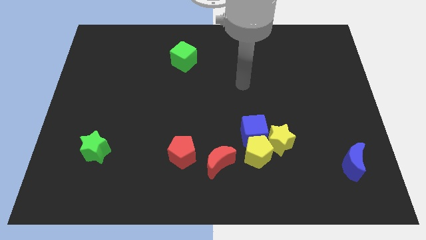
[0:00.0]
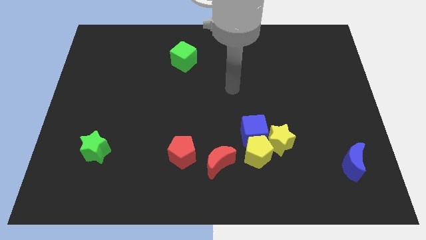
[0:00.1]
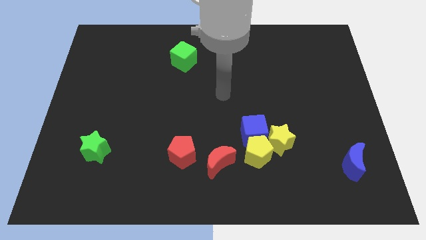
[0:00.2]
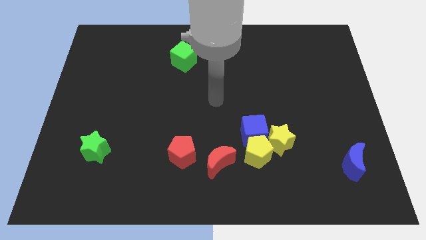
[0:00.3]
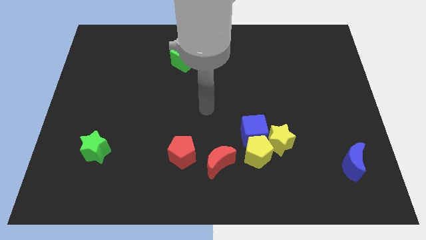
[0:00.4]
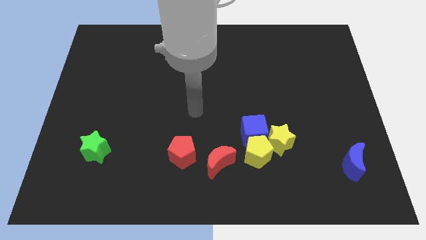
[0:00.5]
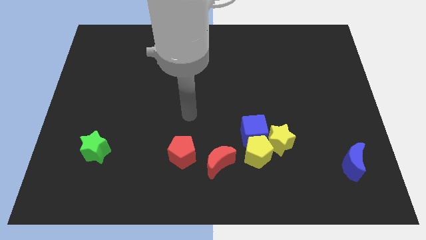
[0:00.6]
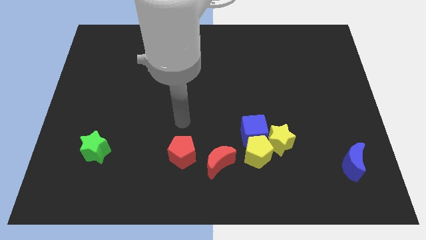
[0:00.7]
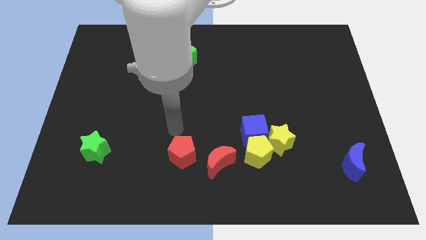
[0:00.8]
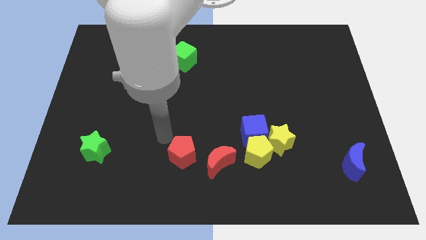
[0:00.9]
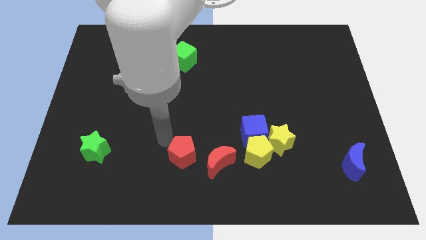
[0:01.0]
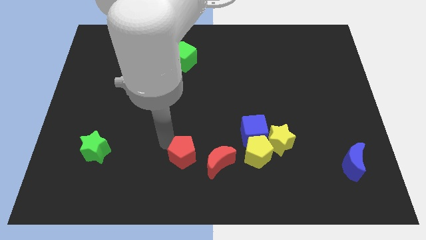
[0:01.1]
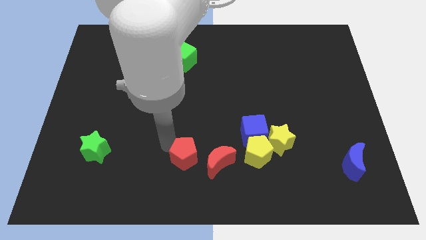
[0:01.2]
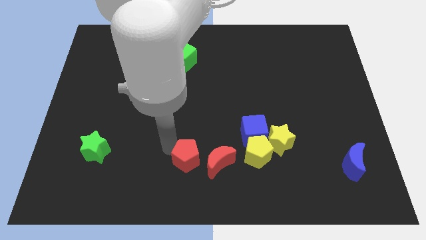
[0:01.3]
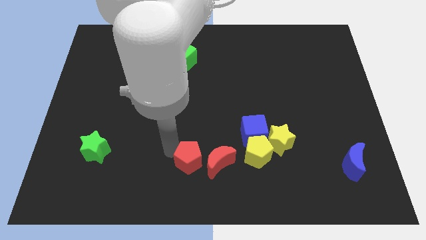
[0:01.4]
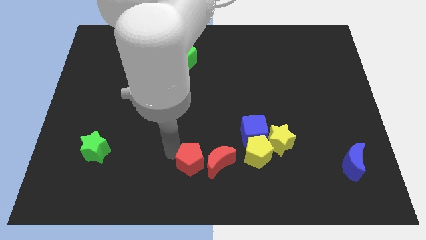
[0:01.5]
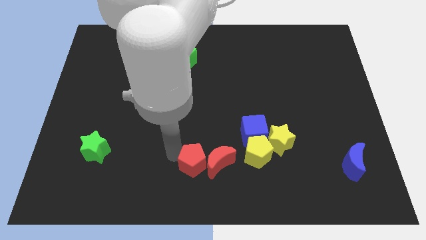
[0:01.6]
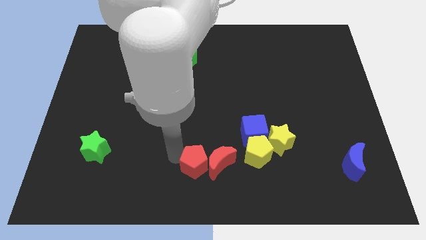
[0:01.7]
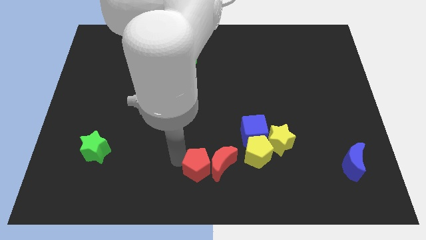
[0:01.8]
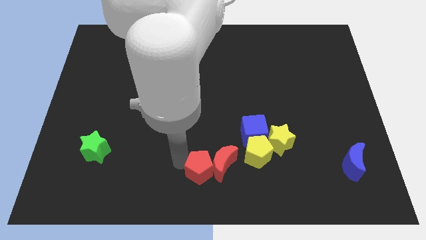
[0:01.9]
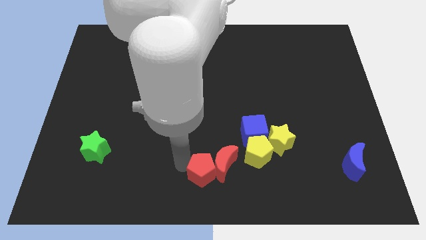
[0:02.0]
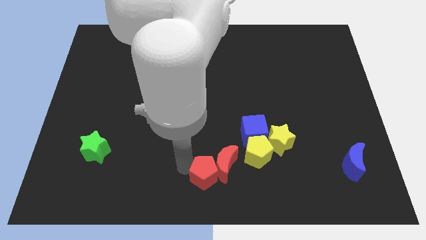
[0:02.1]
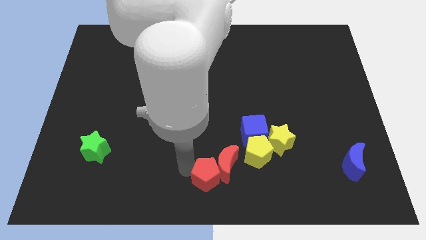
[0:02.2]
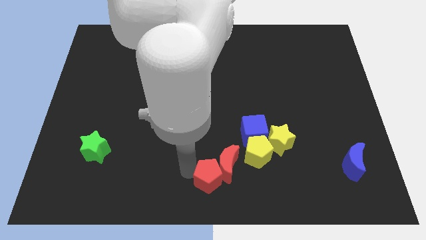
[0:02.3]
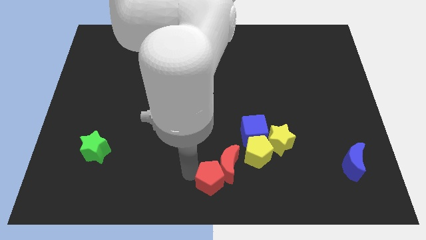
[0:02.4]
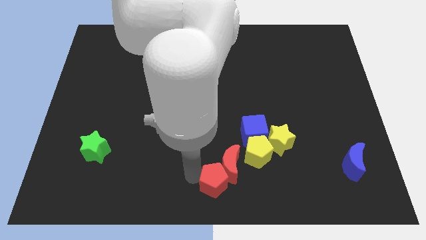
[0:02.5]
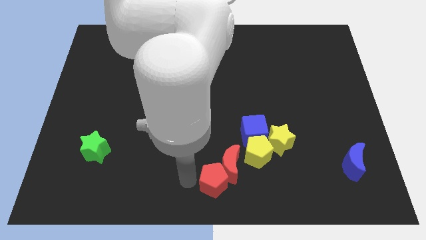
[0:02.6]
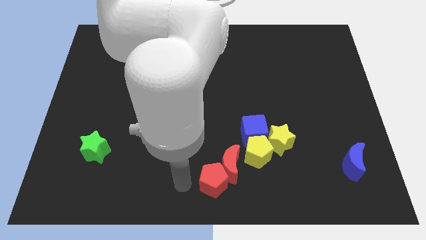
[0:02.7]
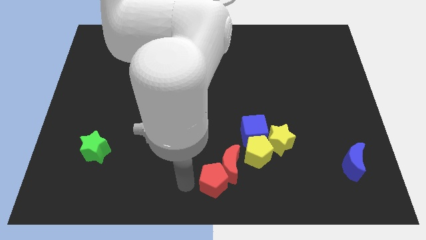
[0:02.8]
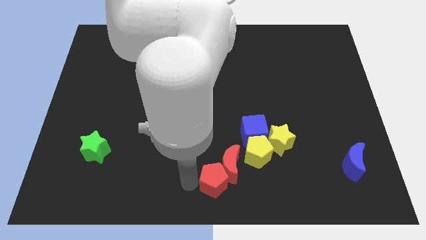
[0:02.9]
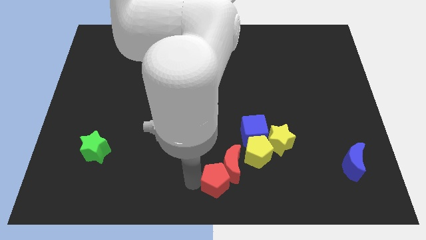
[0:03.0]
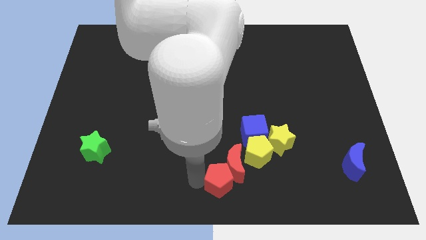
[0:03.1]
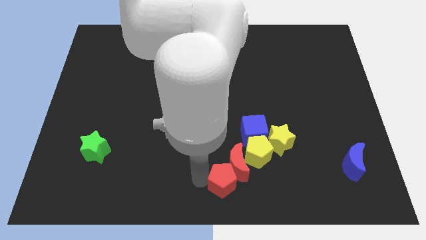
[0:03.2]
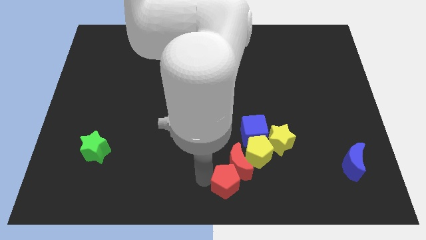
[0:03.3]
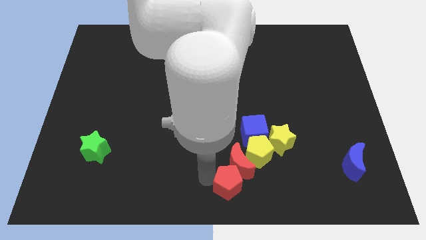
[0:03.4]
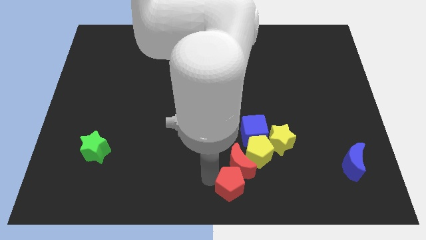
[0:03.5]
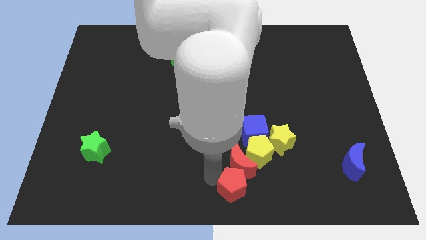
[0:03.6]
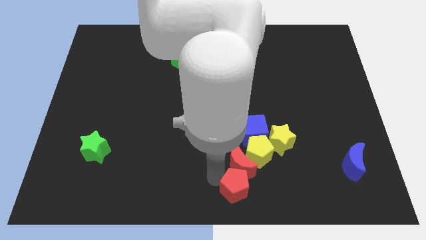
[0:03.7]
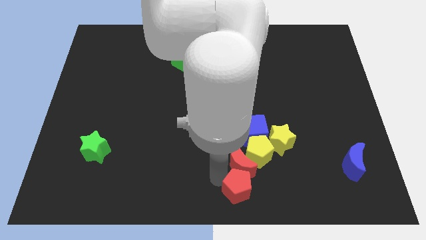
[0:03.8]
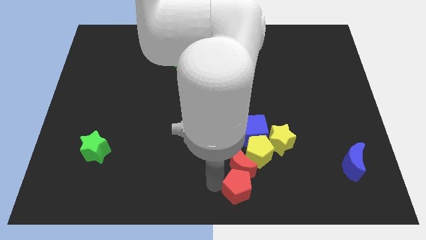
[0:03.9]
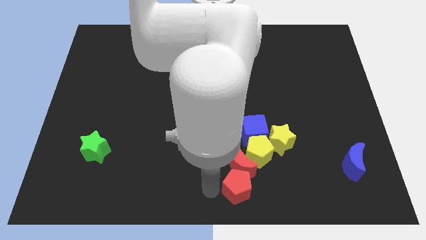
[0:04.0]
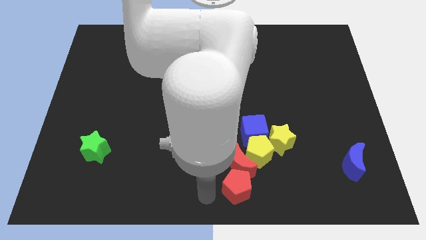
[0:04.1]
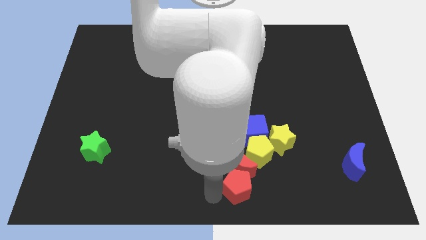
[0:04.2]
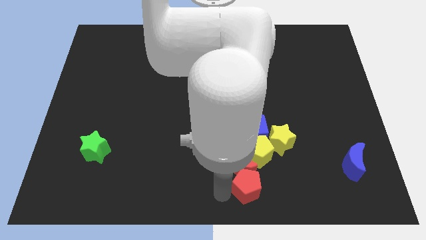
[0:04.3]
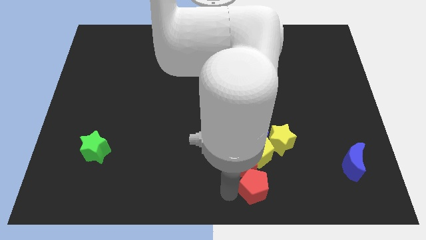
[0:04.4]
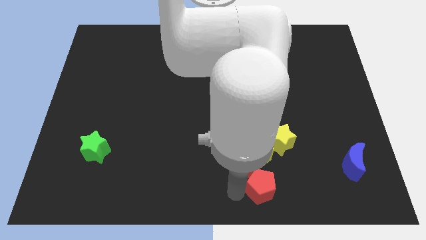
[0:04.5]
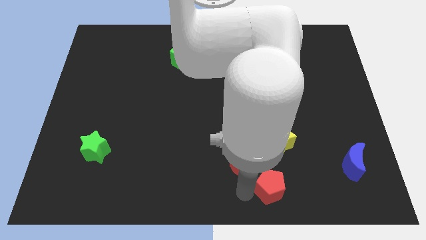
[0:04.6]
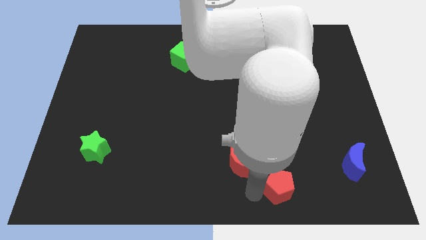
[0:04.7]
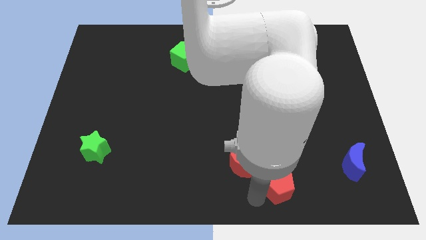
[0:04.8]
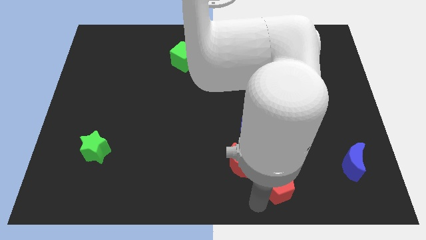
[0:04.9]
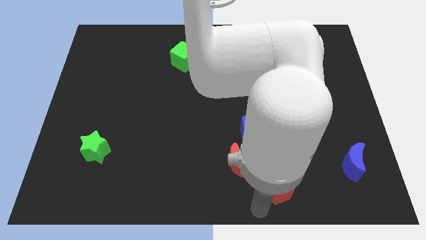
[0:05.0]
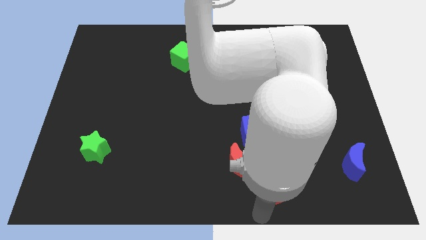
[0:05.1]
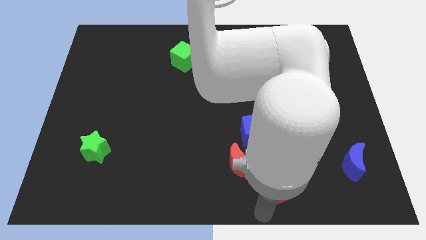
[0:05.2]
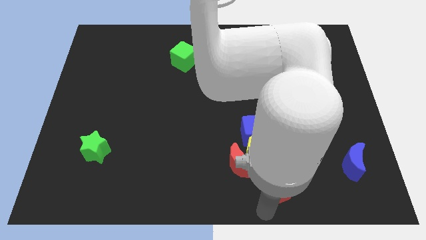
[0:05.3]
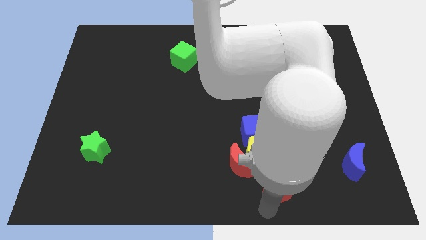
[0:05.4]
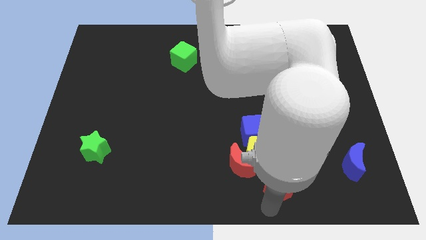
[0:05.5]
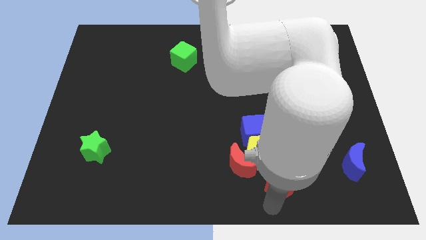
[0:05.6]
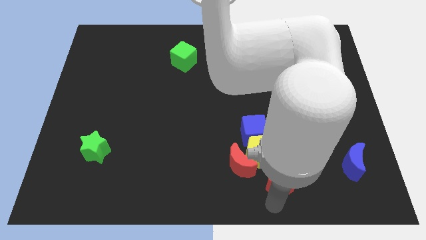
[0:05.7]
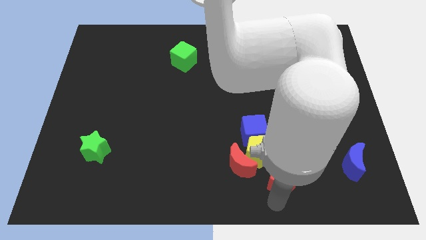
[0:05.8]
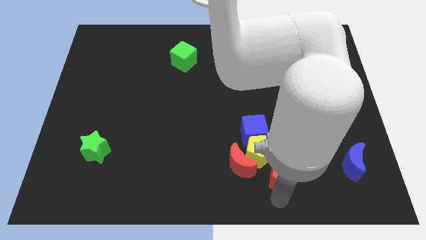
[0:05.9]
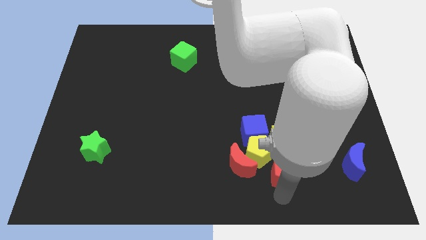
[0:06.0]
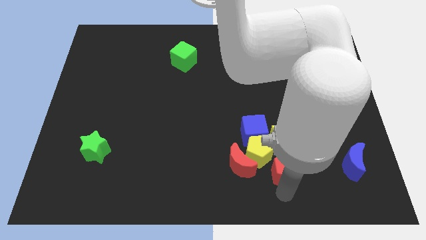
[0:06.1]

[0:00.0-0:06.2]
push the red pentagon to the right of the yellow pentagon
